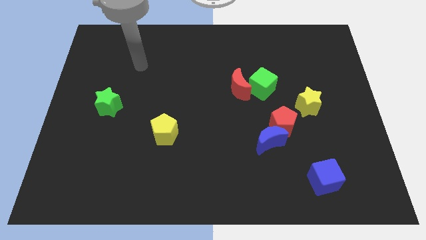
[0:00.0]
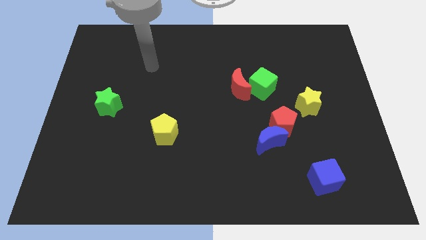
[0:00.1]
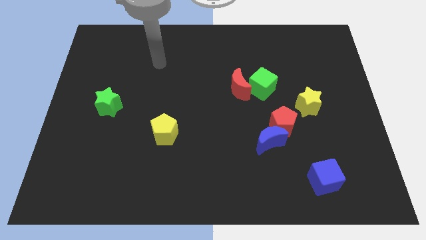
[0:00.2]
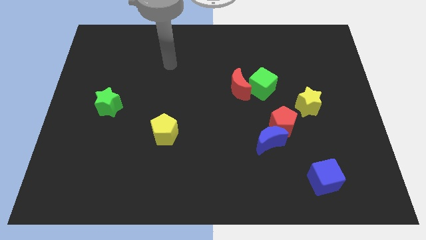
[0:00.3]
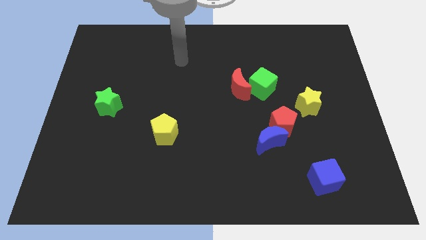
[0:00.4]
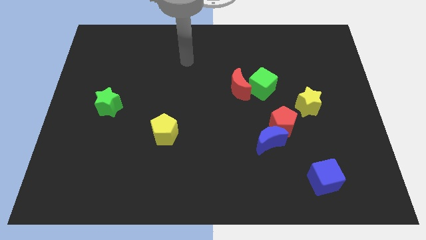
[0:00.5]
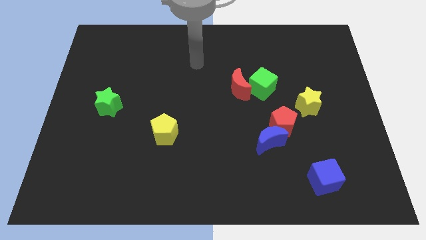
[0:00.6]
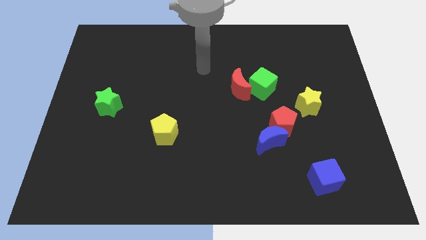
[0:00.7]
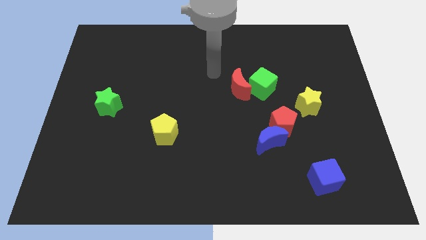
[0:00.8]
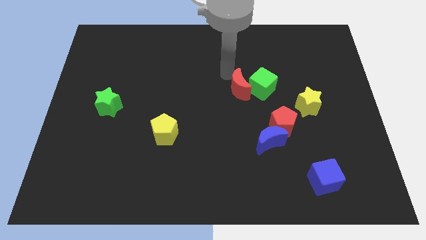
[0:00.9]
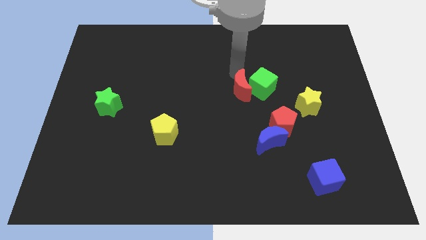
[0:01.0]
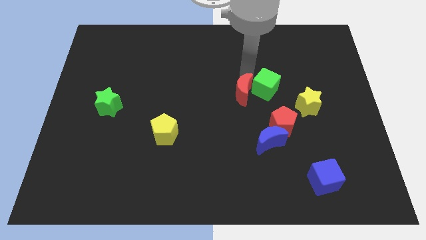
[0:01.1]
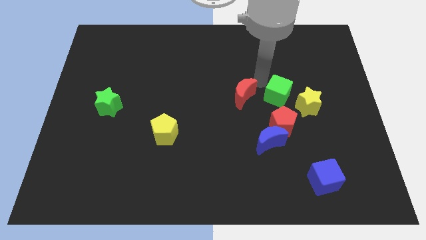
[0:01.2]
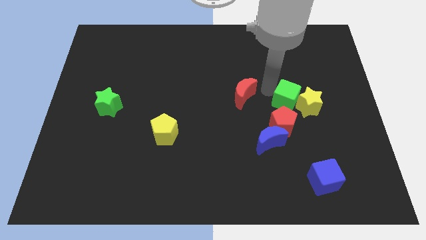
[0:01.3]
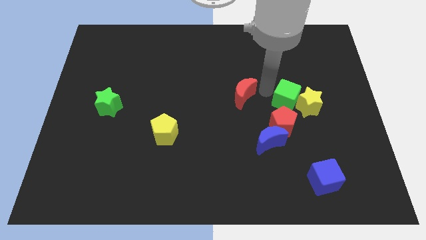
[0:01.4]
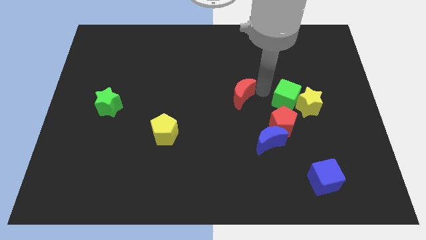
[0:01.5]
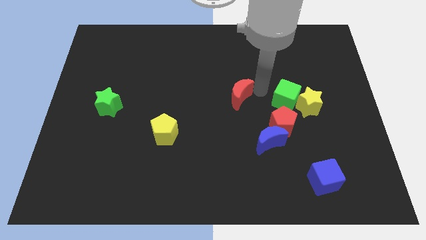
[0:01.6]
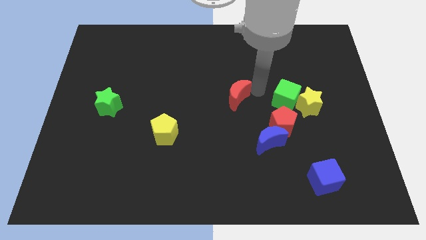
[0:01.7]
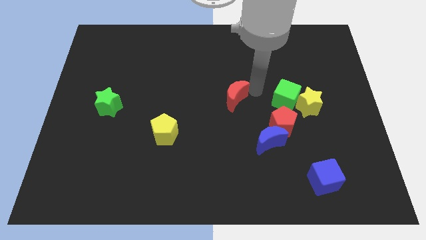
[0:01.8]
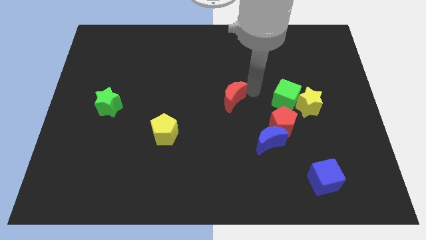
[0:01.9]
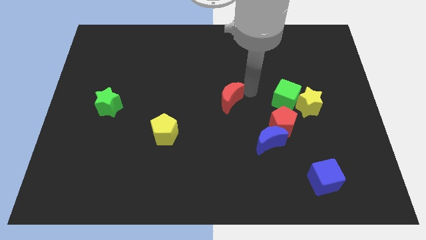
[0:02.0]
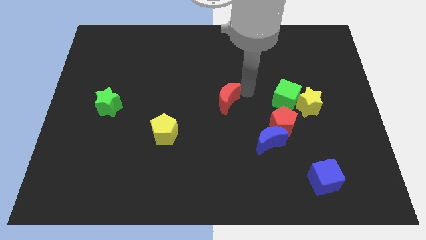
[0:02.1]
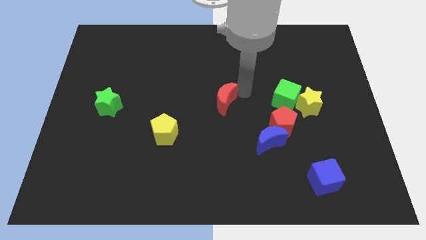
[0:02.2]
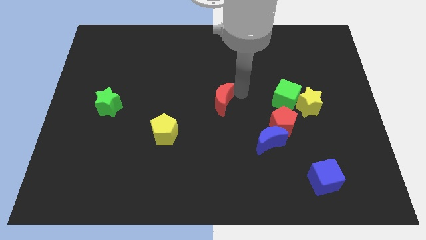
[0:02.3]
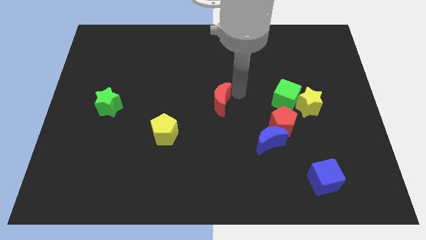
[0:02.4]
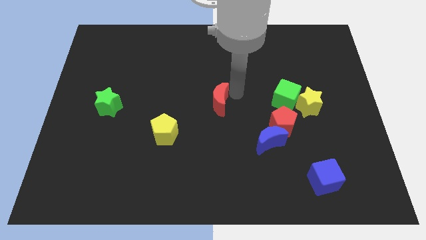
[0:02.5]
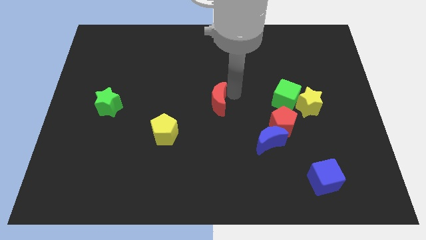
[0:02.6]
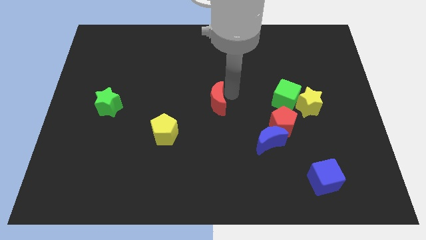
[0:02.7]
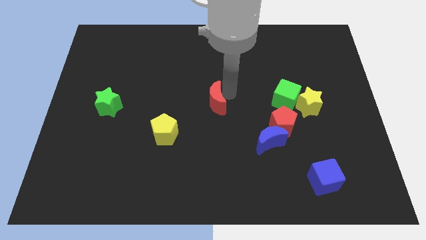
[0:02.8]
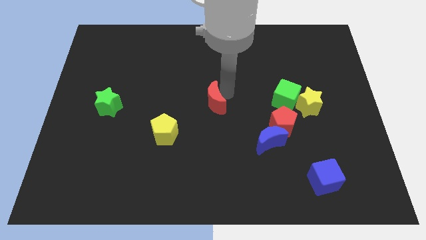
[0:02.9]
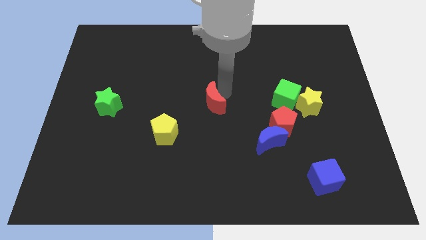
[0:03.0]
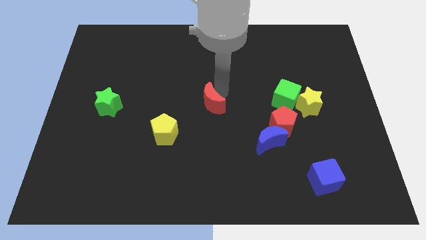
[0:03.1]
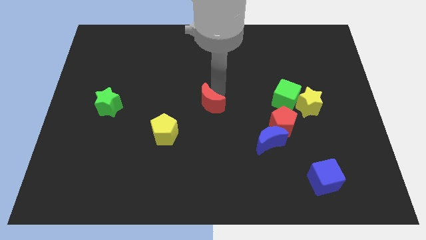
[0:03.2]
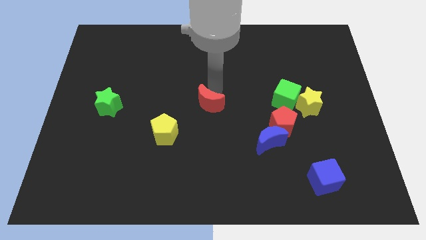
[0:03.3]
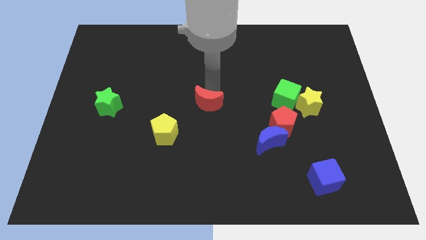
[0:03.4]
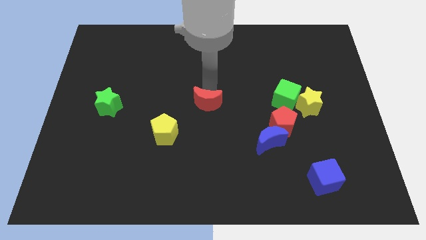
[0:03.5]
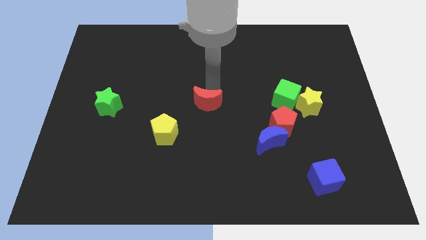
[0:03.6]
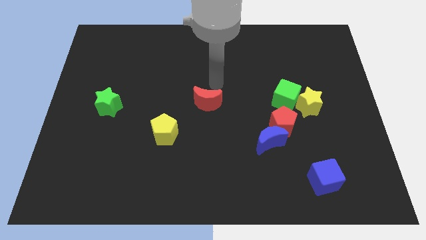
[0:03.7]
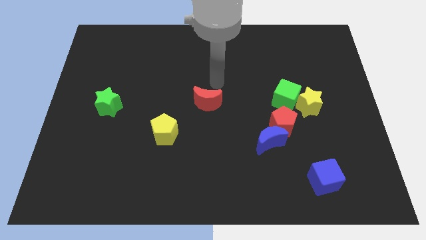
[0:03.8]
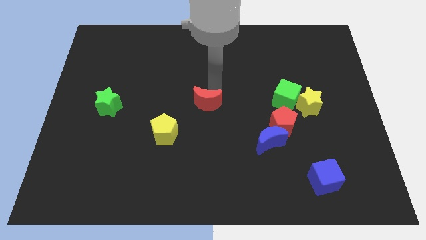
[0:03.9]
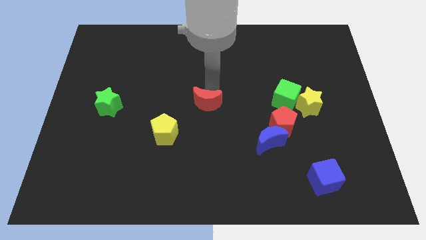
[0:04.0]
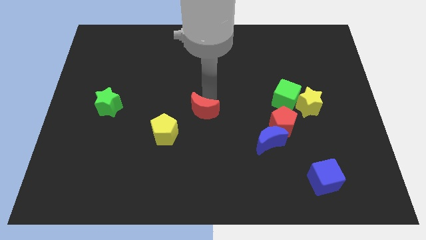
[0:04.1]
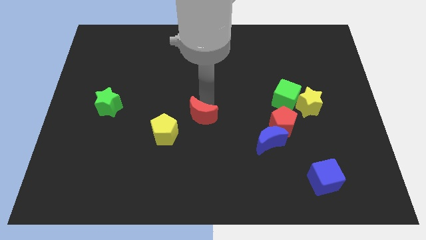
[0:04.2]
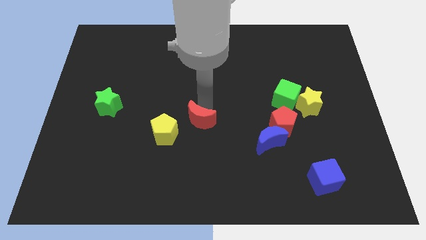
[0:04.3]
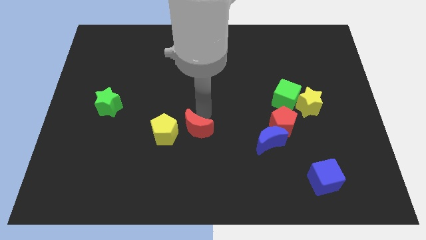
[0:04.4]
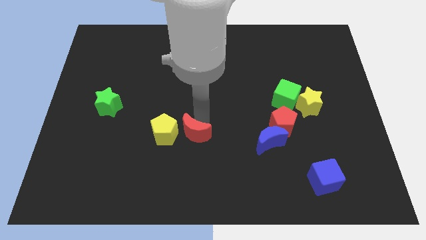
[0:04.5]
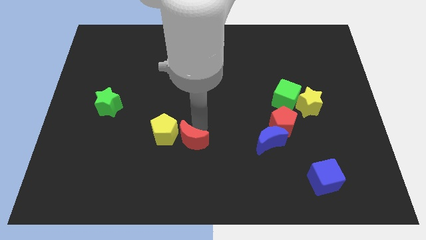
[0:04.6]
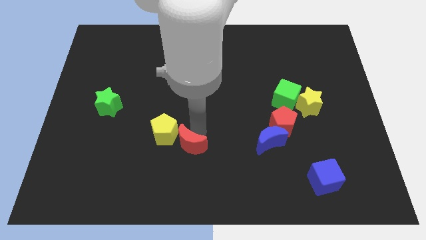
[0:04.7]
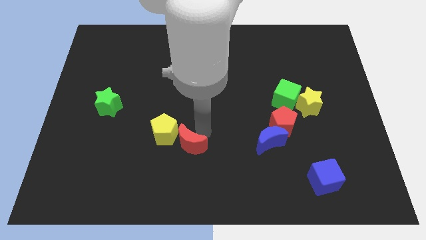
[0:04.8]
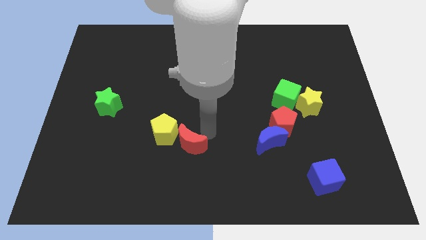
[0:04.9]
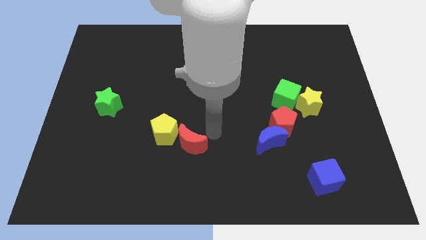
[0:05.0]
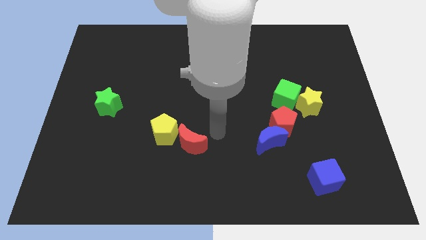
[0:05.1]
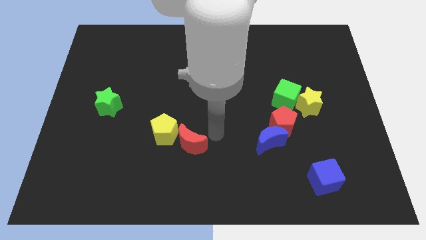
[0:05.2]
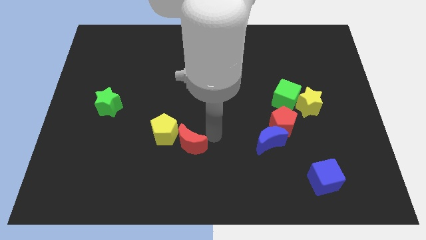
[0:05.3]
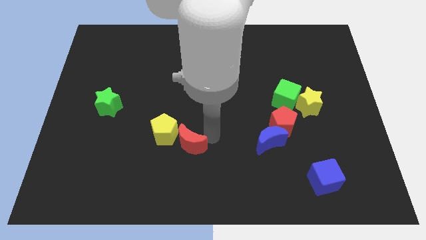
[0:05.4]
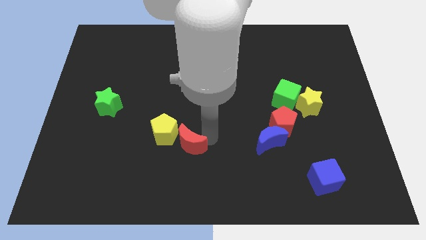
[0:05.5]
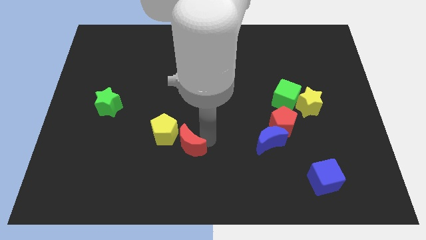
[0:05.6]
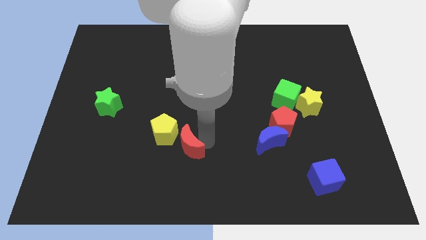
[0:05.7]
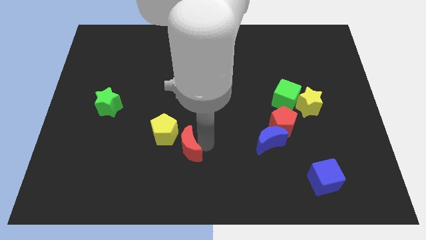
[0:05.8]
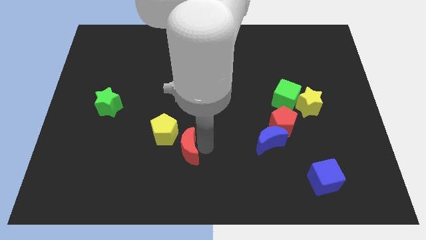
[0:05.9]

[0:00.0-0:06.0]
push the red moon downwards and left diagonally

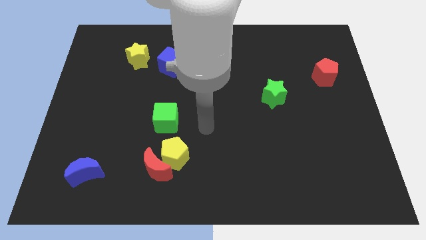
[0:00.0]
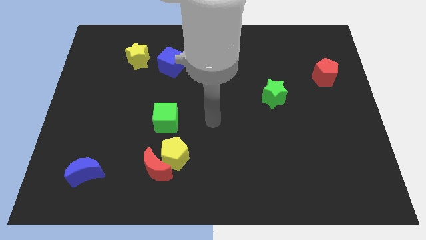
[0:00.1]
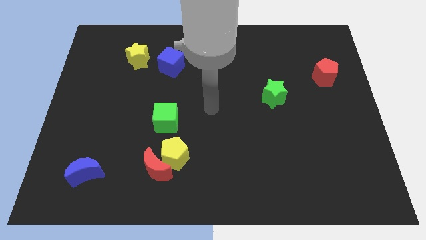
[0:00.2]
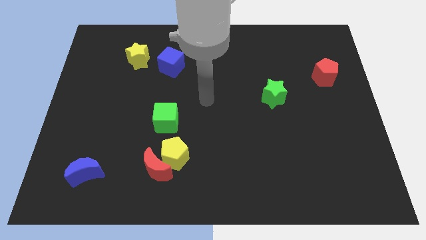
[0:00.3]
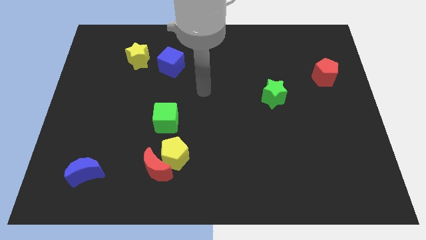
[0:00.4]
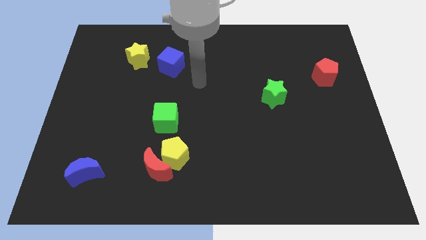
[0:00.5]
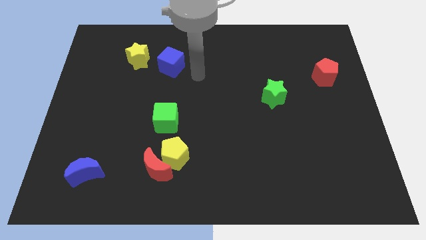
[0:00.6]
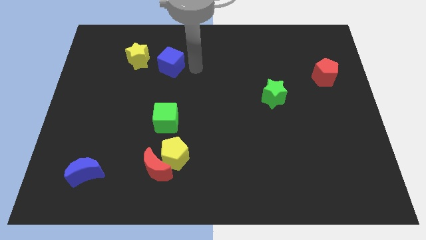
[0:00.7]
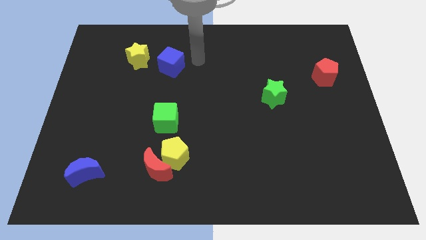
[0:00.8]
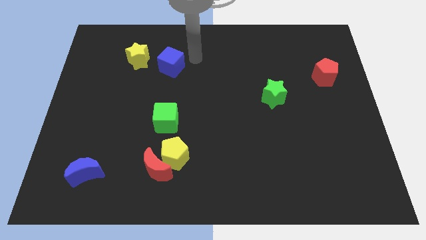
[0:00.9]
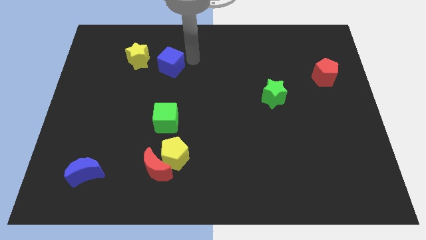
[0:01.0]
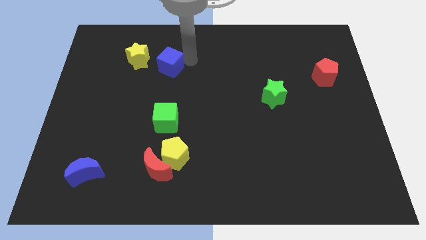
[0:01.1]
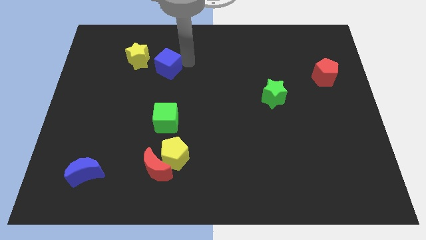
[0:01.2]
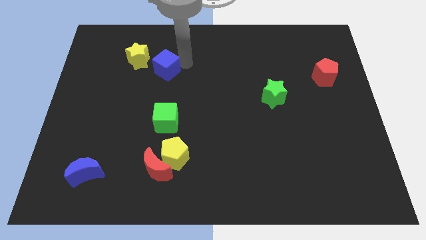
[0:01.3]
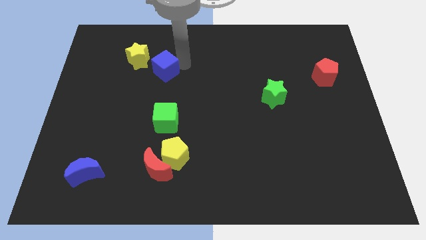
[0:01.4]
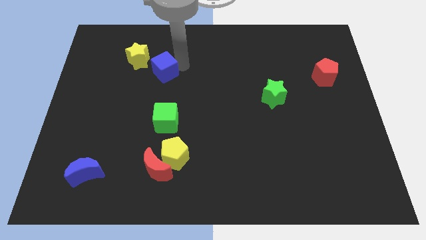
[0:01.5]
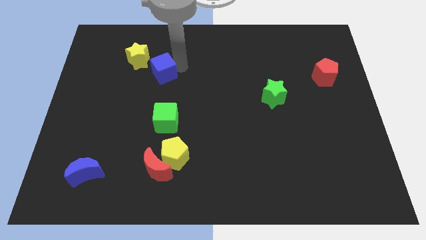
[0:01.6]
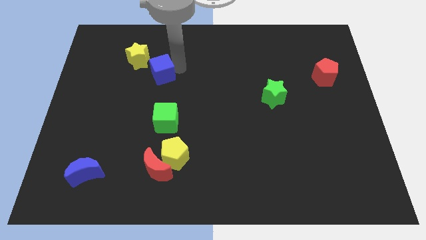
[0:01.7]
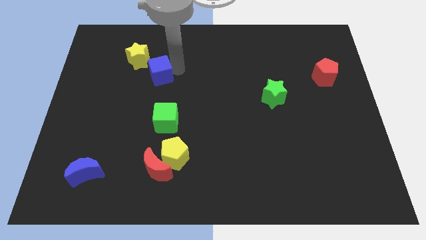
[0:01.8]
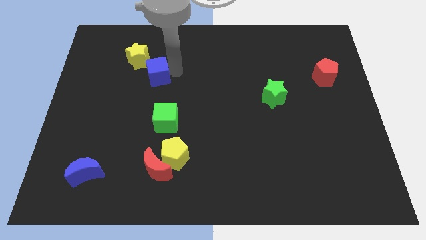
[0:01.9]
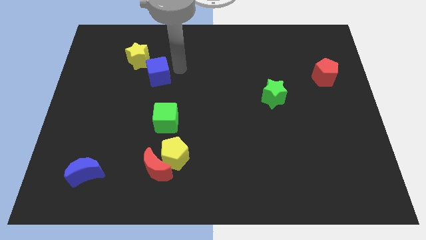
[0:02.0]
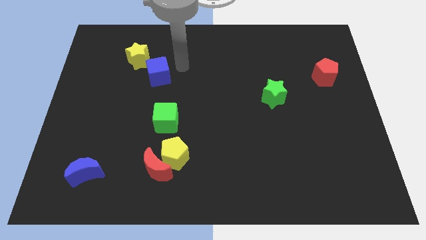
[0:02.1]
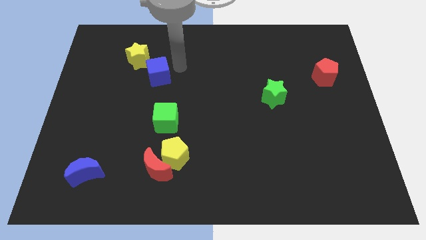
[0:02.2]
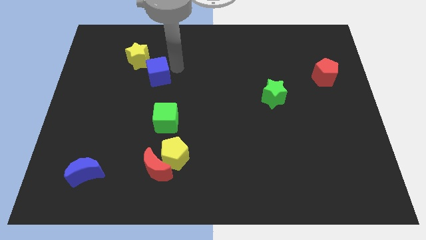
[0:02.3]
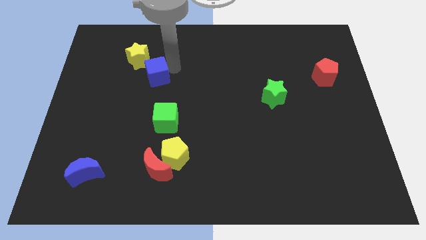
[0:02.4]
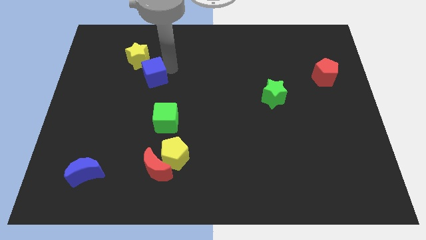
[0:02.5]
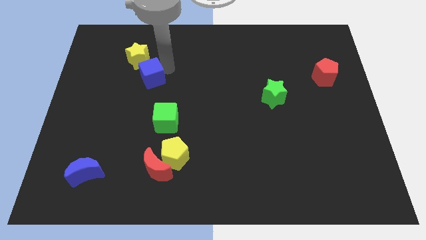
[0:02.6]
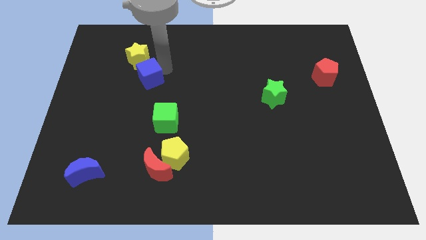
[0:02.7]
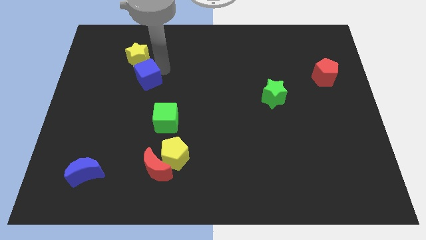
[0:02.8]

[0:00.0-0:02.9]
slide the blue cube diagonally downwards and left a little
